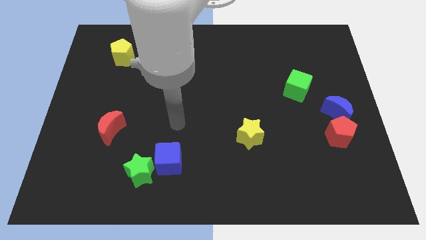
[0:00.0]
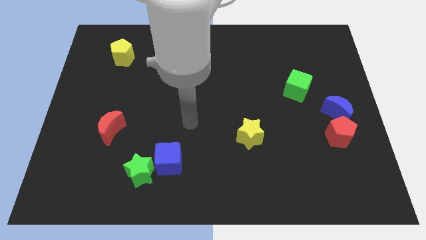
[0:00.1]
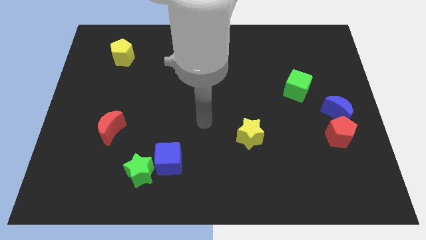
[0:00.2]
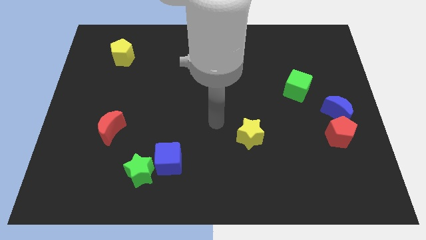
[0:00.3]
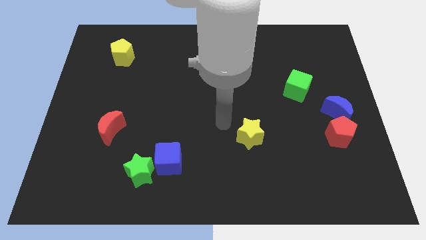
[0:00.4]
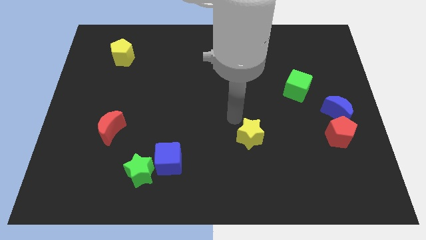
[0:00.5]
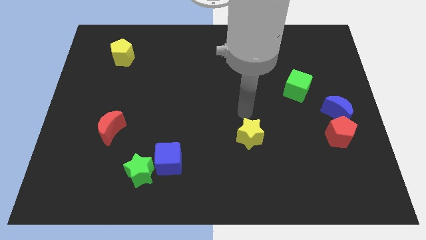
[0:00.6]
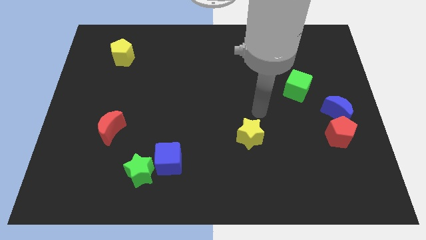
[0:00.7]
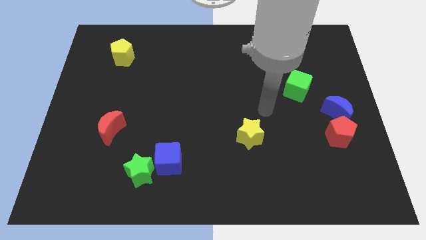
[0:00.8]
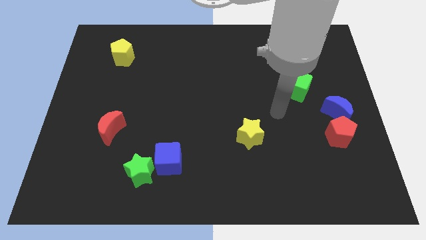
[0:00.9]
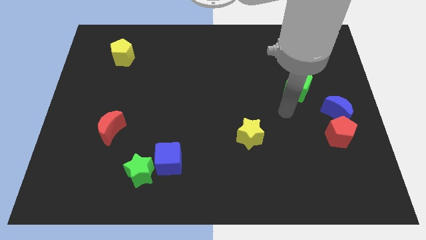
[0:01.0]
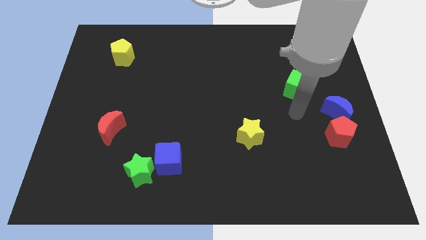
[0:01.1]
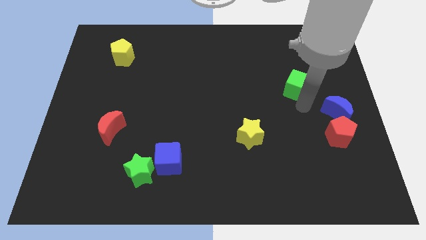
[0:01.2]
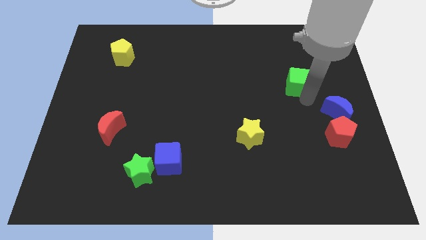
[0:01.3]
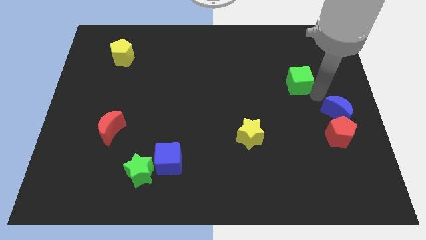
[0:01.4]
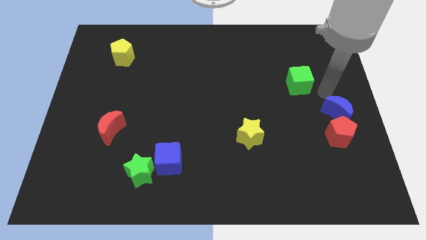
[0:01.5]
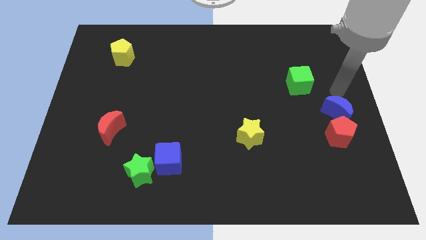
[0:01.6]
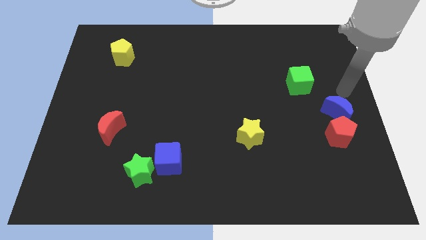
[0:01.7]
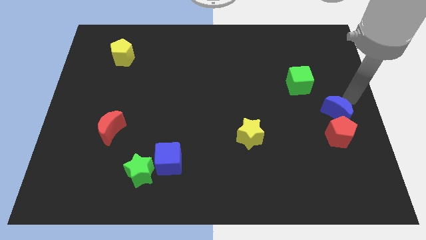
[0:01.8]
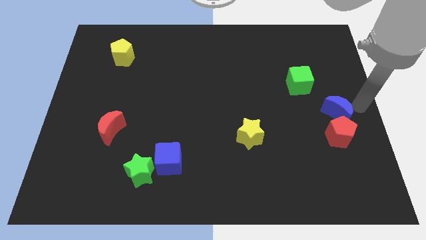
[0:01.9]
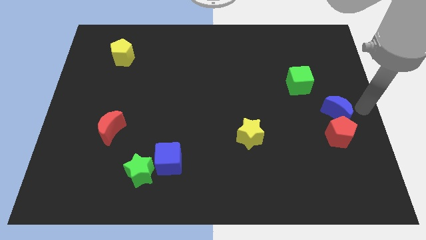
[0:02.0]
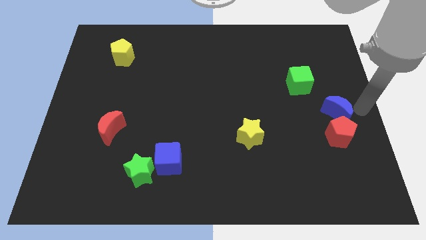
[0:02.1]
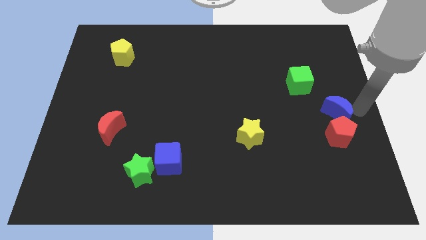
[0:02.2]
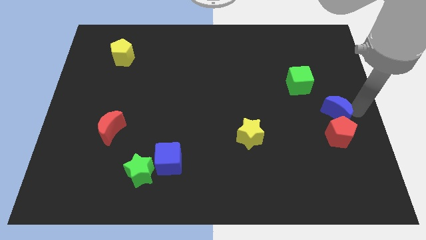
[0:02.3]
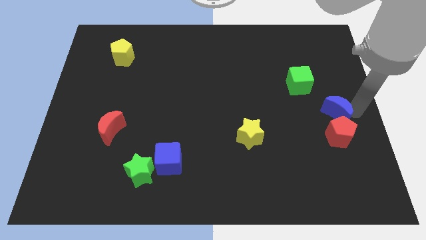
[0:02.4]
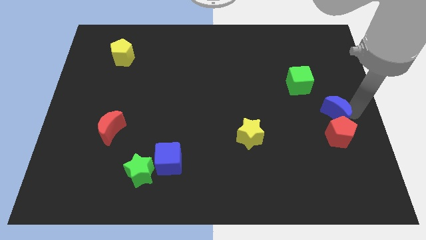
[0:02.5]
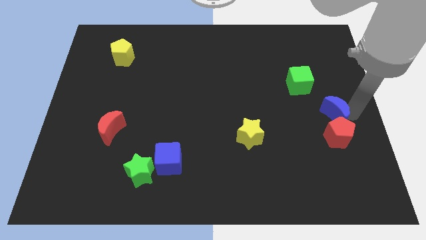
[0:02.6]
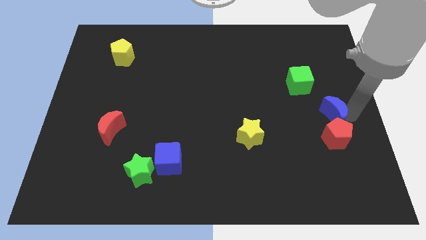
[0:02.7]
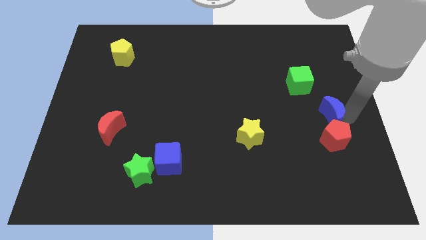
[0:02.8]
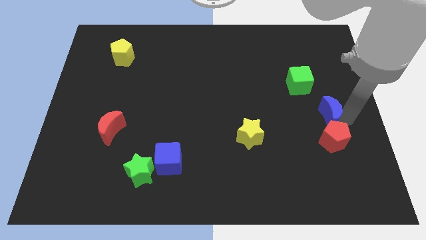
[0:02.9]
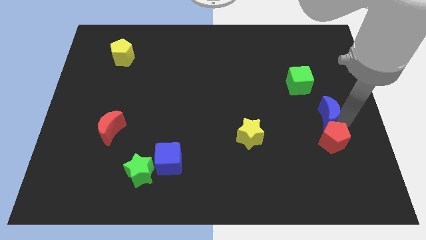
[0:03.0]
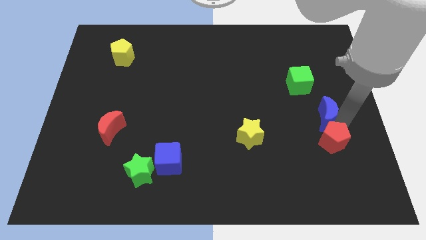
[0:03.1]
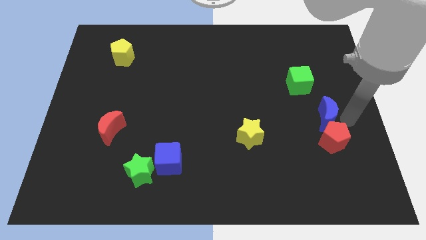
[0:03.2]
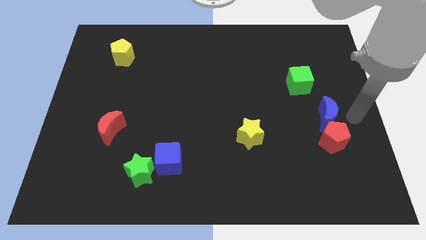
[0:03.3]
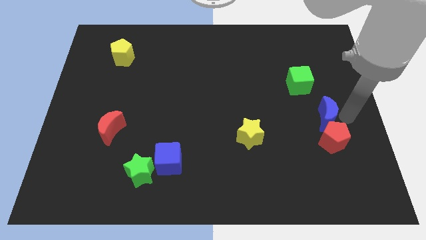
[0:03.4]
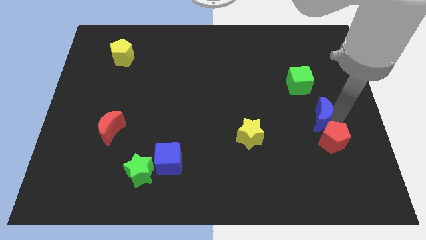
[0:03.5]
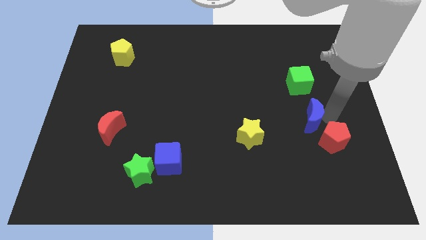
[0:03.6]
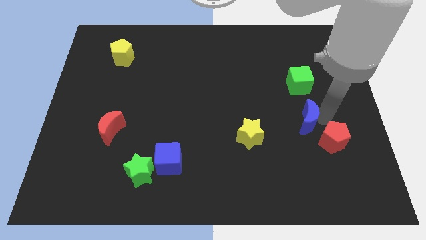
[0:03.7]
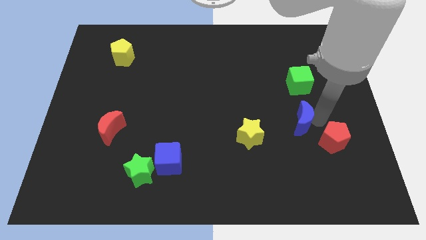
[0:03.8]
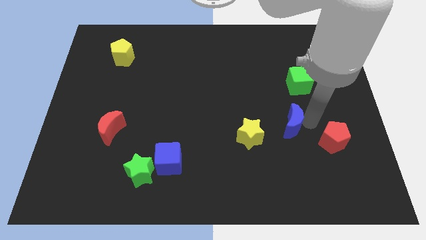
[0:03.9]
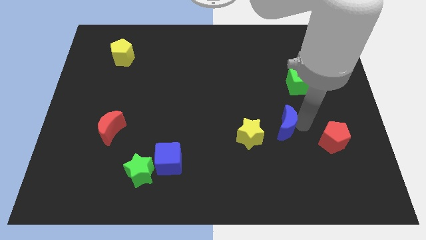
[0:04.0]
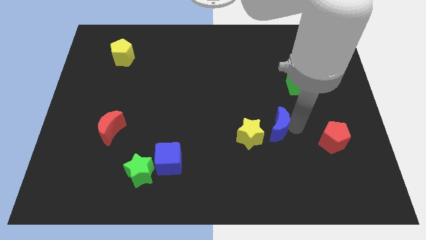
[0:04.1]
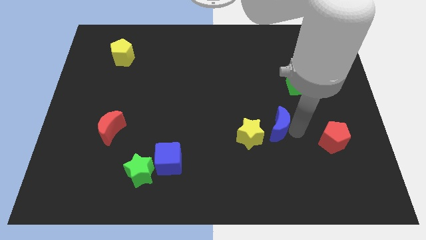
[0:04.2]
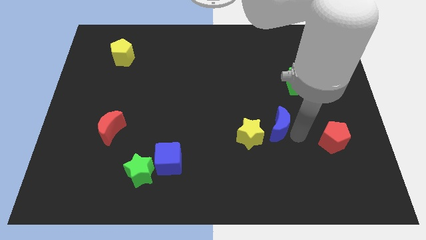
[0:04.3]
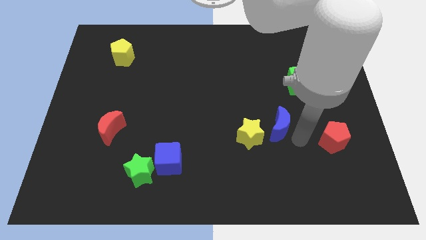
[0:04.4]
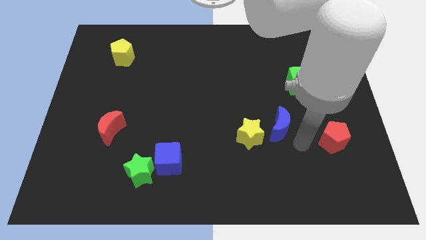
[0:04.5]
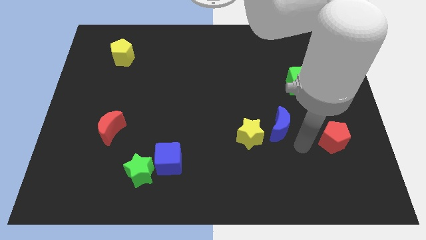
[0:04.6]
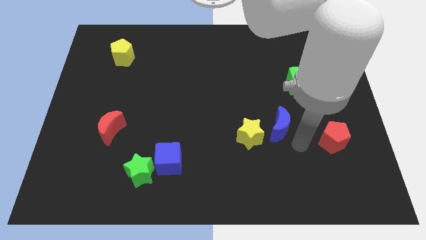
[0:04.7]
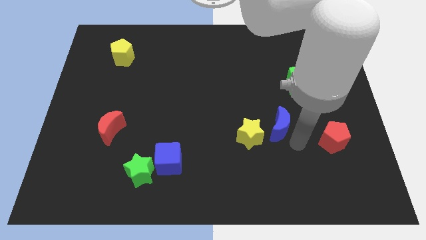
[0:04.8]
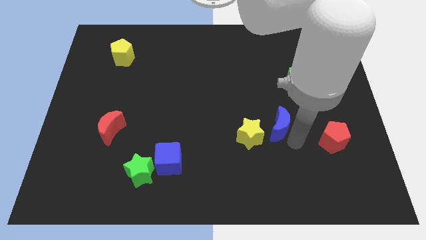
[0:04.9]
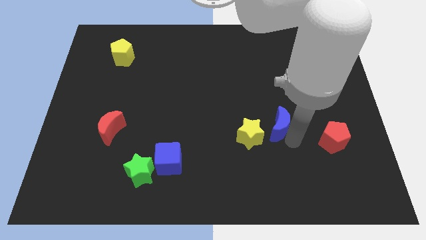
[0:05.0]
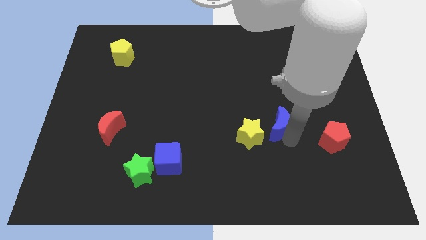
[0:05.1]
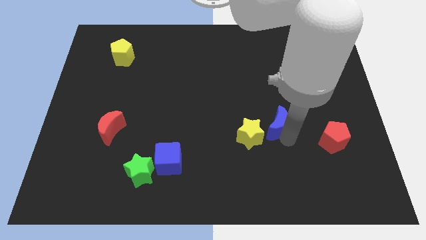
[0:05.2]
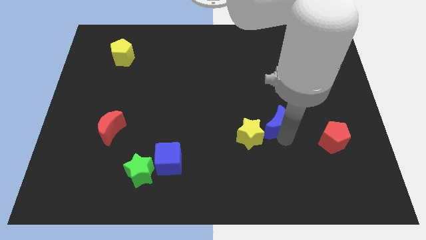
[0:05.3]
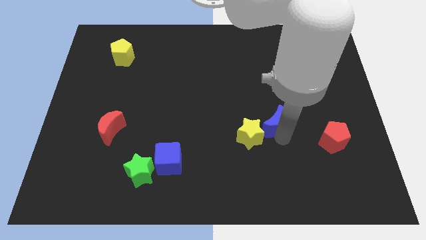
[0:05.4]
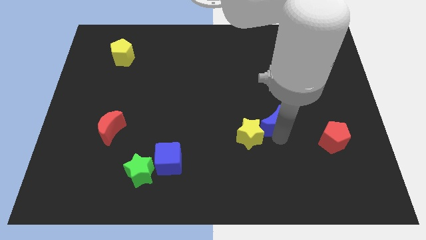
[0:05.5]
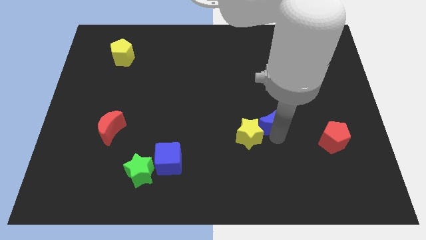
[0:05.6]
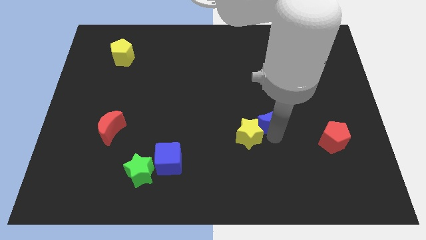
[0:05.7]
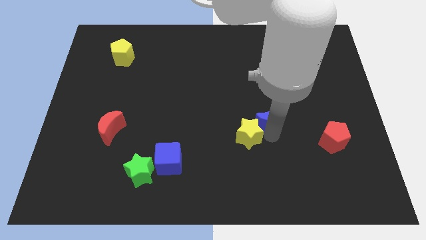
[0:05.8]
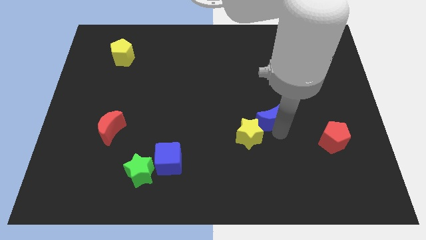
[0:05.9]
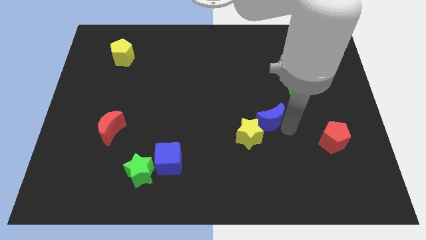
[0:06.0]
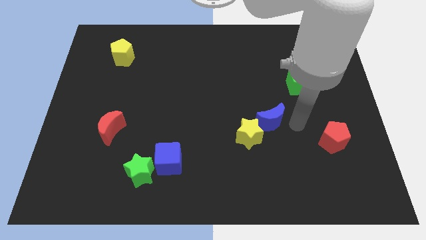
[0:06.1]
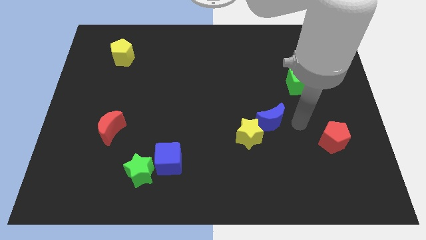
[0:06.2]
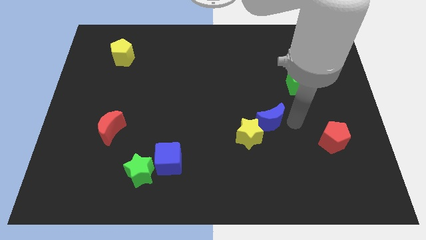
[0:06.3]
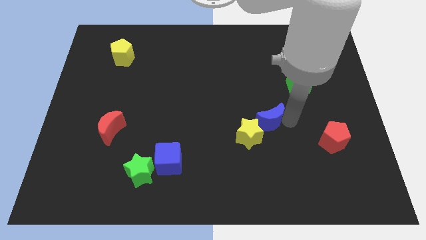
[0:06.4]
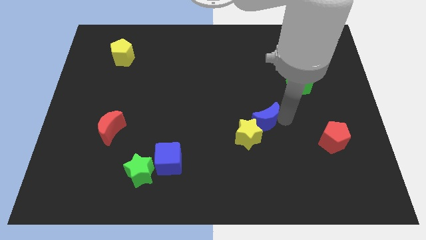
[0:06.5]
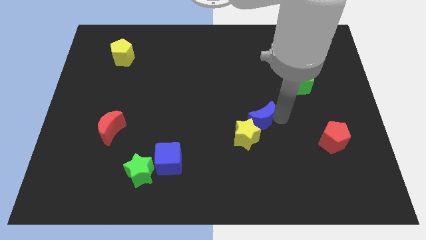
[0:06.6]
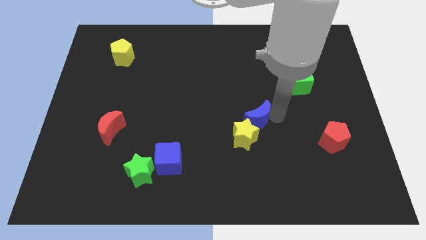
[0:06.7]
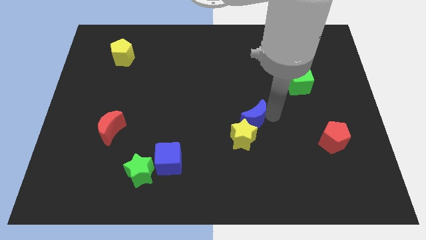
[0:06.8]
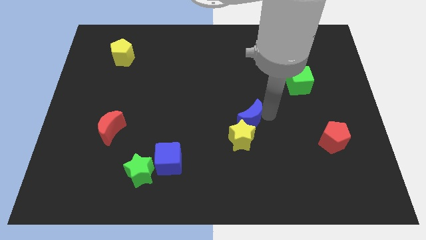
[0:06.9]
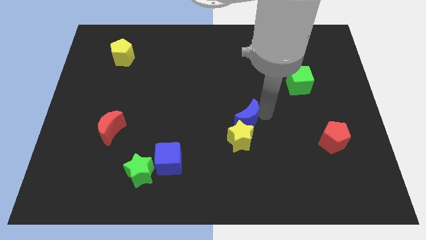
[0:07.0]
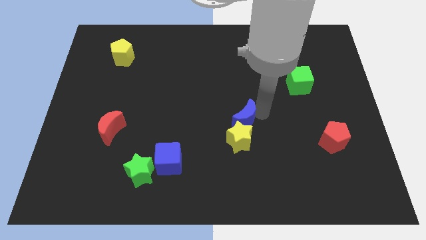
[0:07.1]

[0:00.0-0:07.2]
slide the blue moon to the top left side of the yellow star
